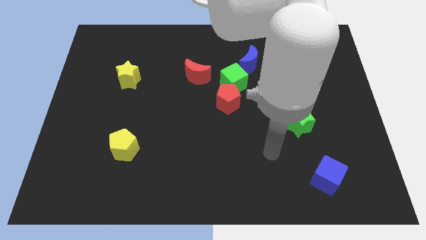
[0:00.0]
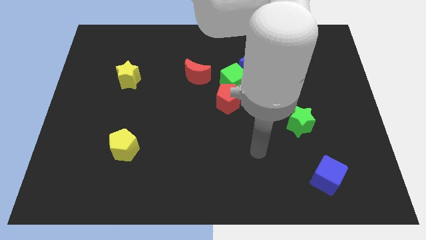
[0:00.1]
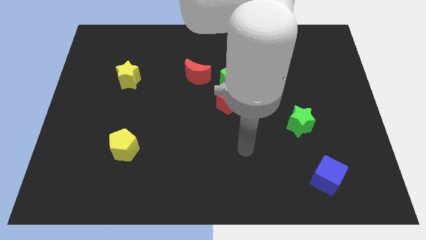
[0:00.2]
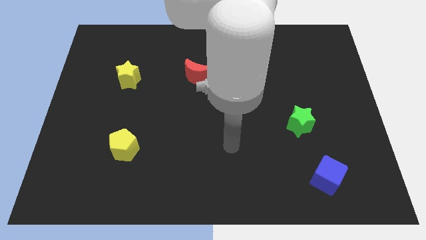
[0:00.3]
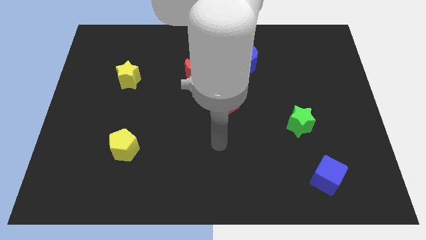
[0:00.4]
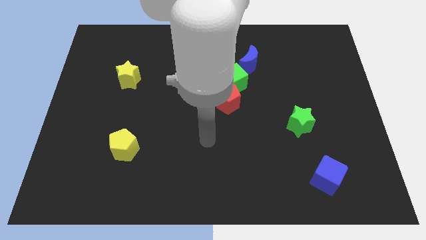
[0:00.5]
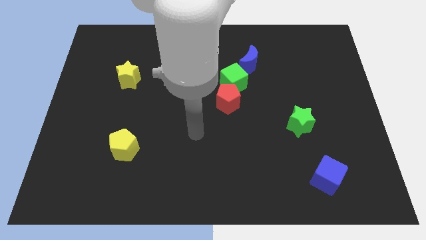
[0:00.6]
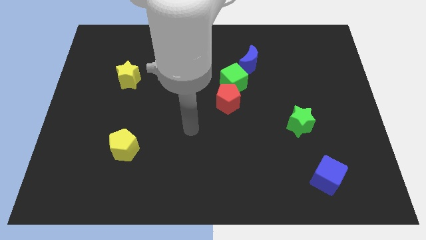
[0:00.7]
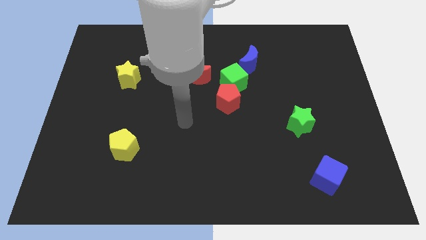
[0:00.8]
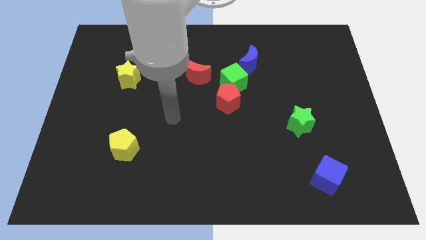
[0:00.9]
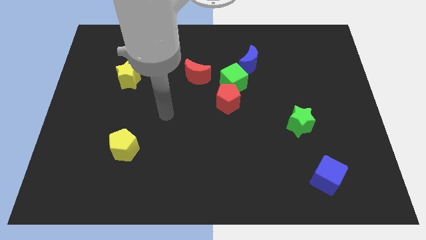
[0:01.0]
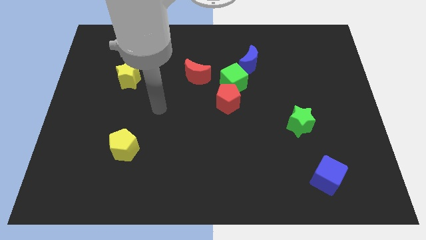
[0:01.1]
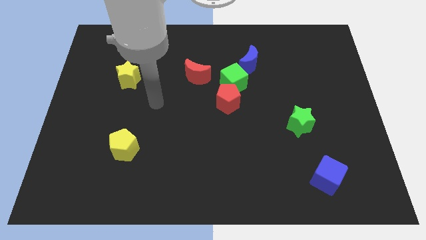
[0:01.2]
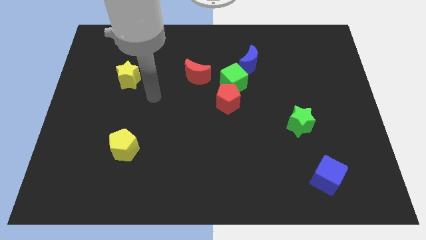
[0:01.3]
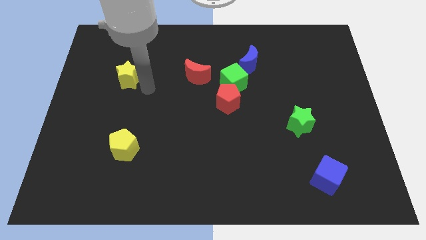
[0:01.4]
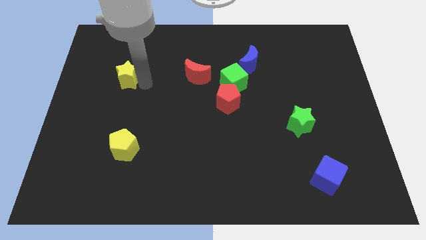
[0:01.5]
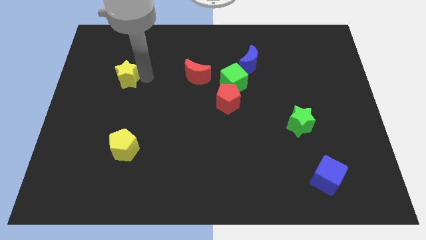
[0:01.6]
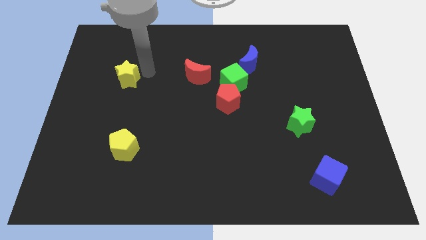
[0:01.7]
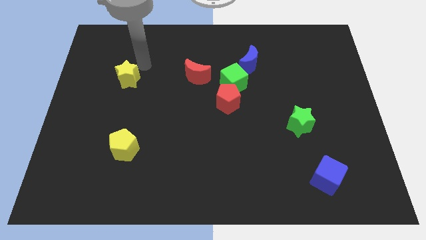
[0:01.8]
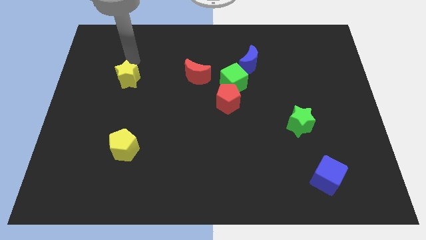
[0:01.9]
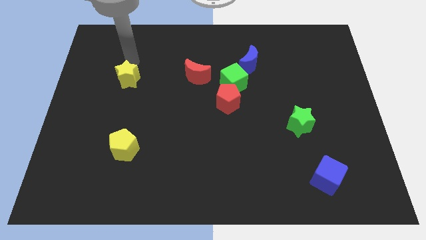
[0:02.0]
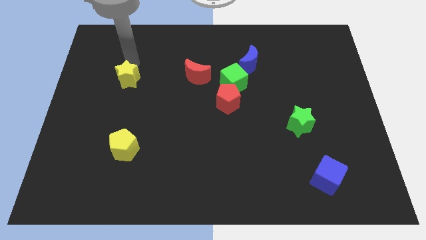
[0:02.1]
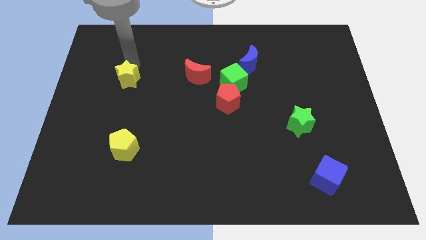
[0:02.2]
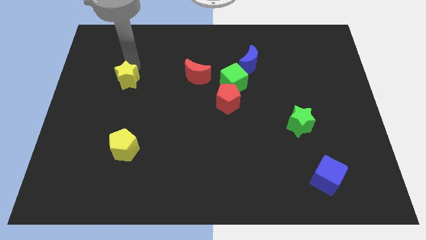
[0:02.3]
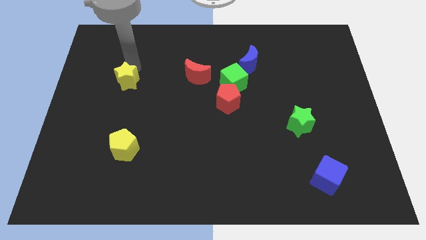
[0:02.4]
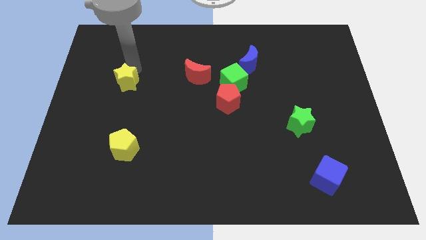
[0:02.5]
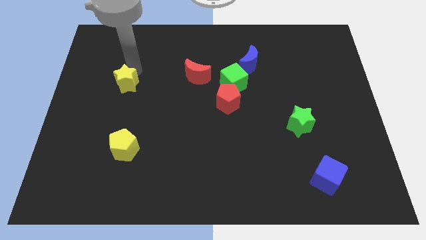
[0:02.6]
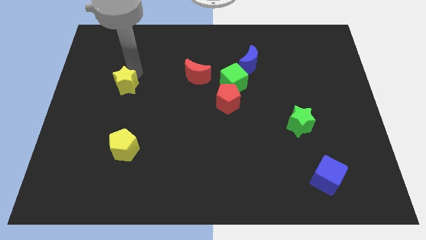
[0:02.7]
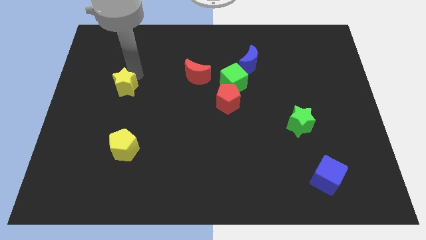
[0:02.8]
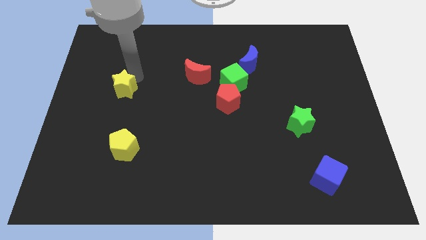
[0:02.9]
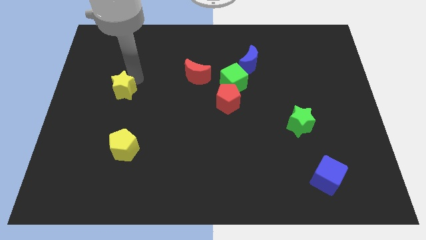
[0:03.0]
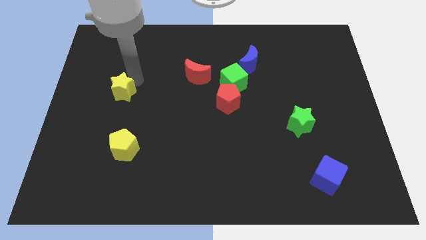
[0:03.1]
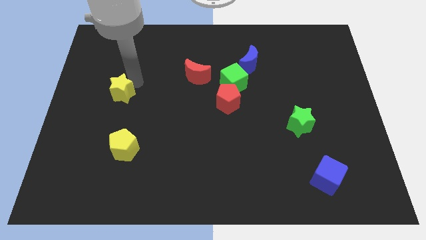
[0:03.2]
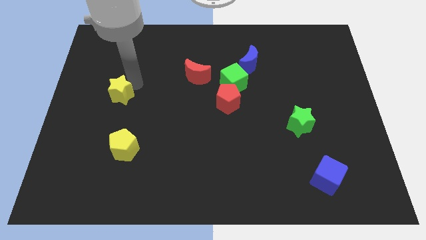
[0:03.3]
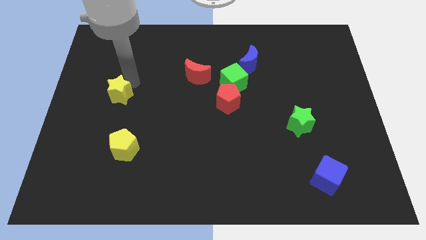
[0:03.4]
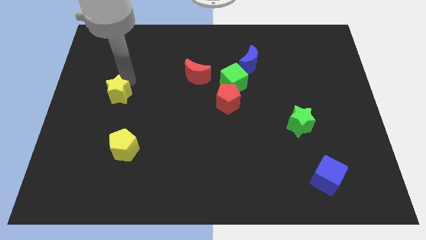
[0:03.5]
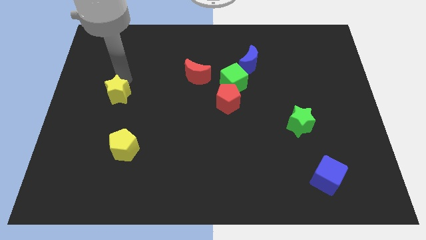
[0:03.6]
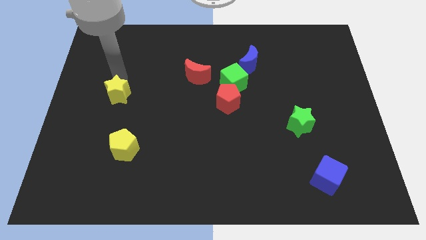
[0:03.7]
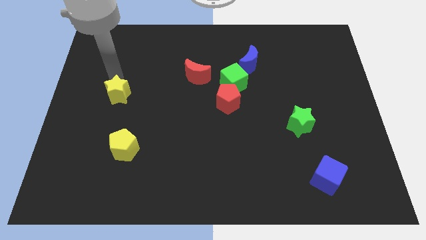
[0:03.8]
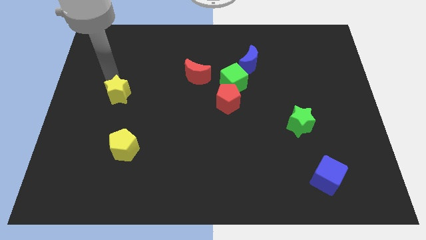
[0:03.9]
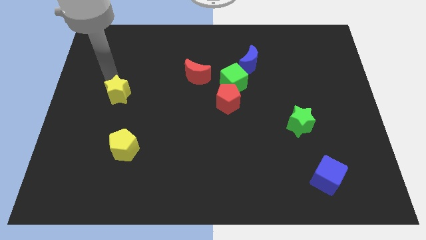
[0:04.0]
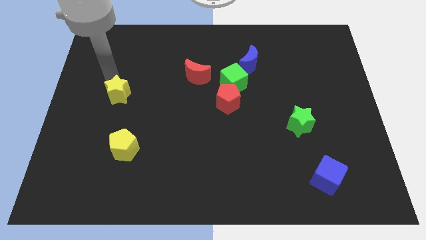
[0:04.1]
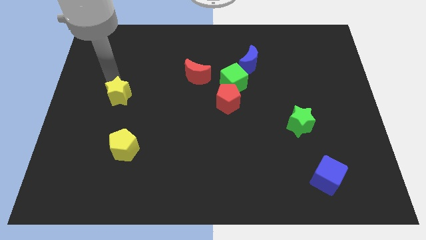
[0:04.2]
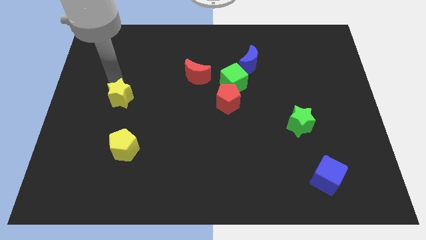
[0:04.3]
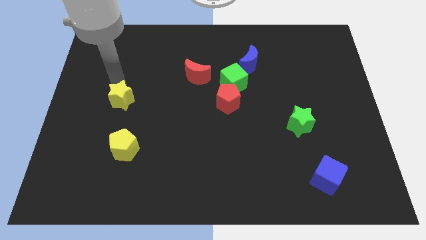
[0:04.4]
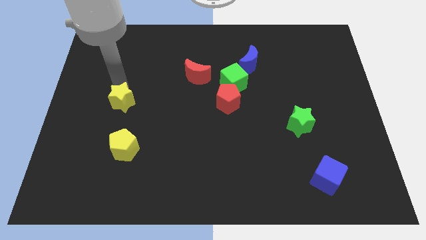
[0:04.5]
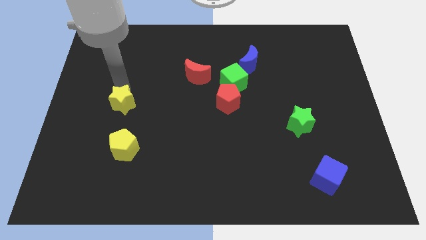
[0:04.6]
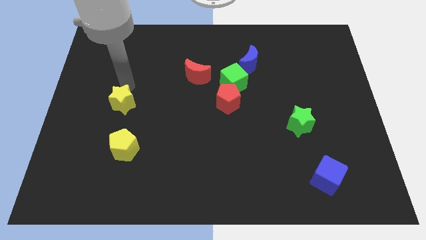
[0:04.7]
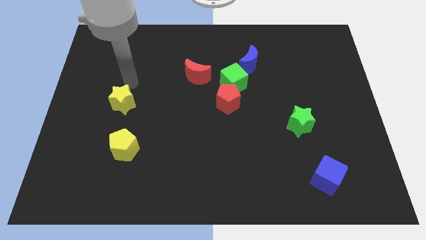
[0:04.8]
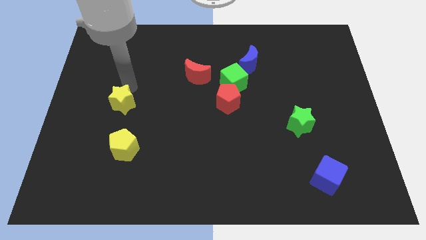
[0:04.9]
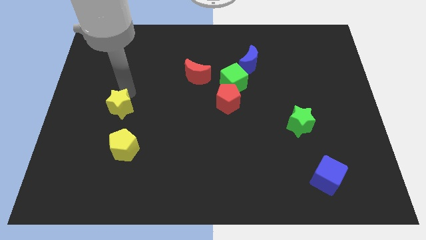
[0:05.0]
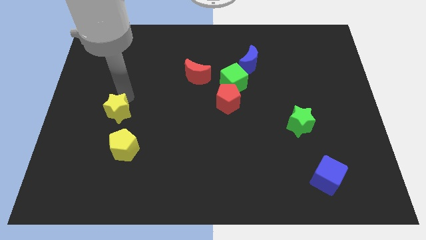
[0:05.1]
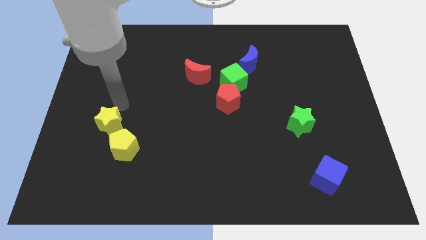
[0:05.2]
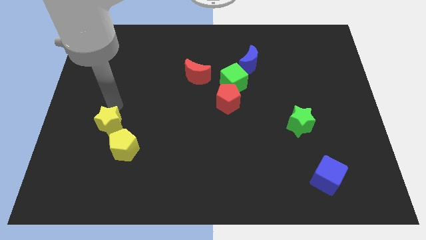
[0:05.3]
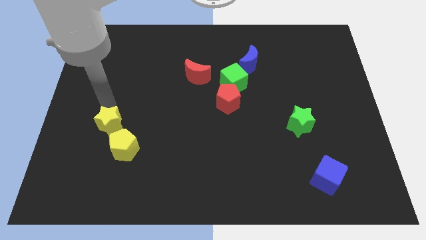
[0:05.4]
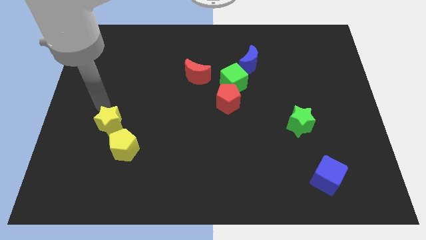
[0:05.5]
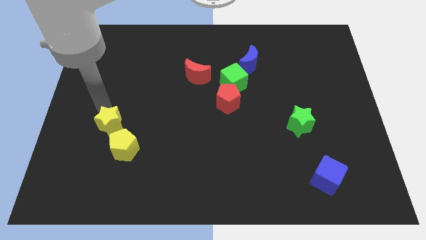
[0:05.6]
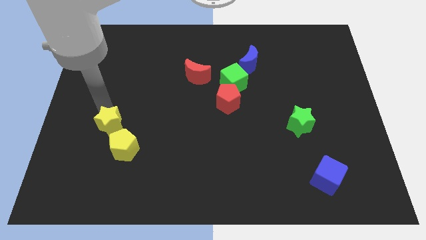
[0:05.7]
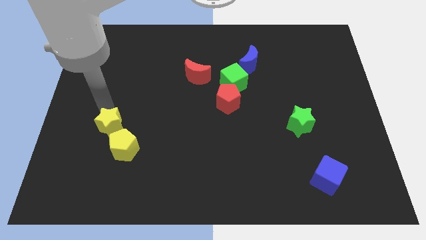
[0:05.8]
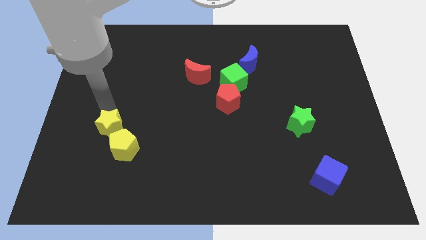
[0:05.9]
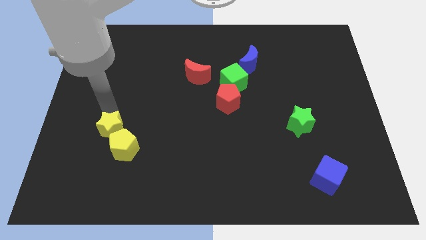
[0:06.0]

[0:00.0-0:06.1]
put the yellow star towards the yellow pentagon

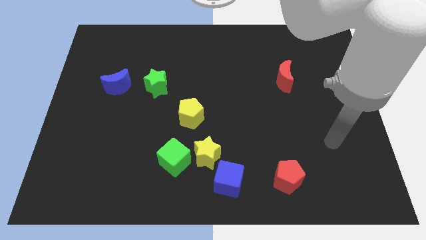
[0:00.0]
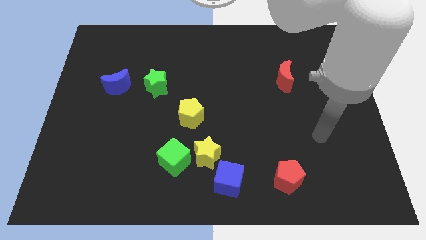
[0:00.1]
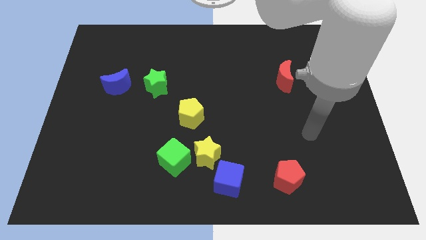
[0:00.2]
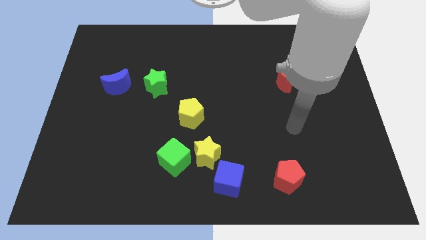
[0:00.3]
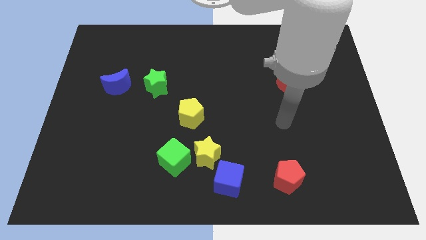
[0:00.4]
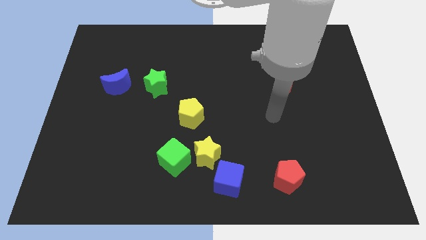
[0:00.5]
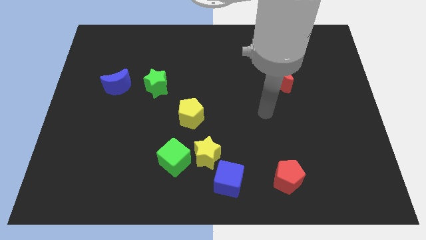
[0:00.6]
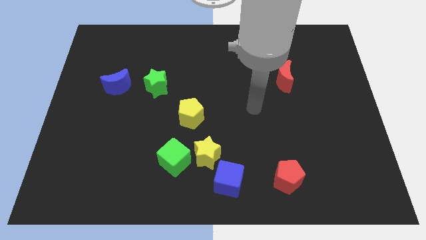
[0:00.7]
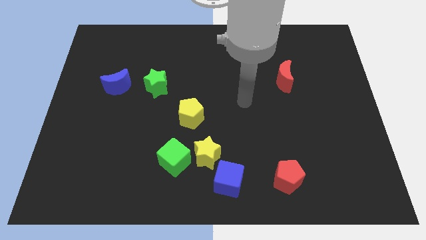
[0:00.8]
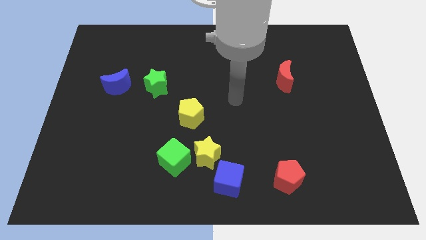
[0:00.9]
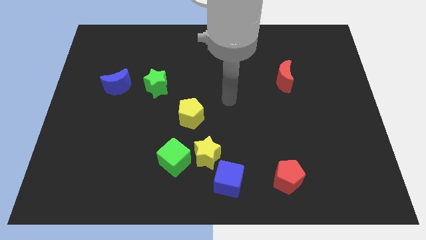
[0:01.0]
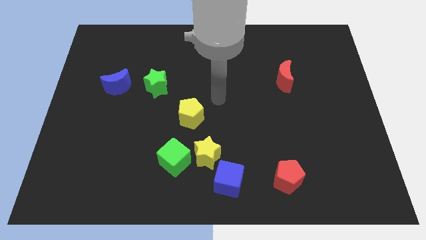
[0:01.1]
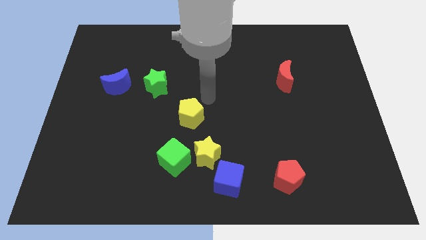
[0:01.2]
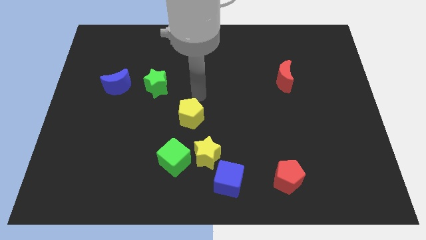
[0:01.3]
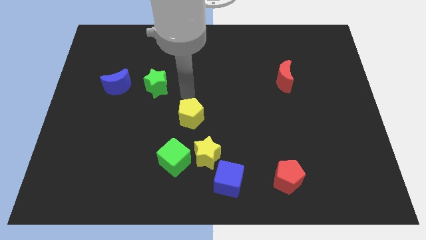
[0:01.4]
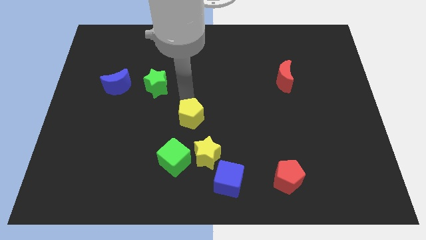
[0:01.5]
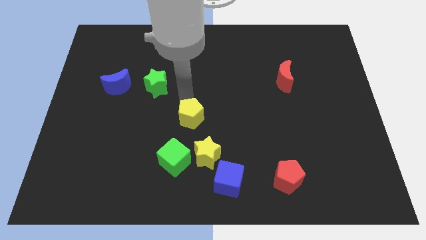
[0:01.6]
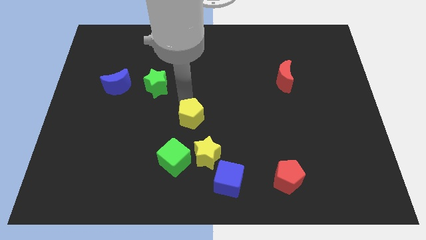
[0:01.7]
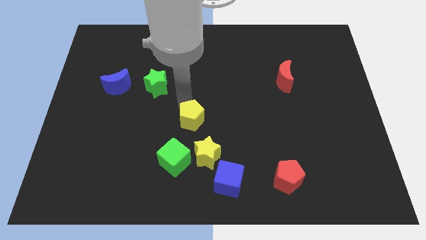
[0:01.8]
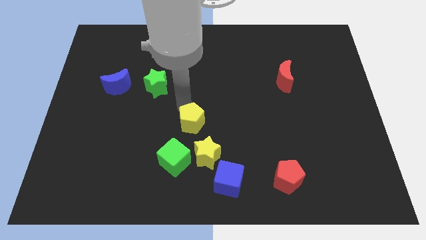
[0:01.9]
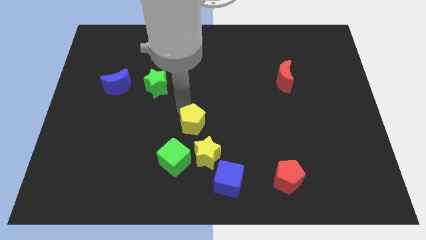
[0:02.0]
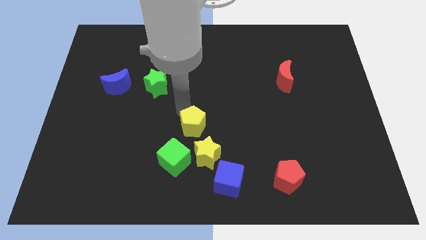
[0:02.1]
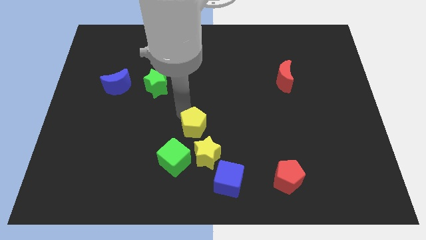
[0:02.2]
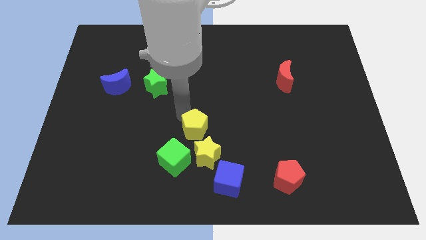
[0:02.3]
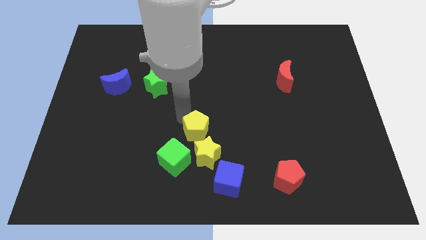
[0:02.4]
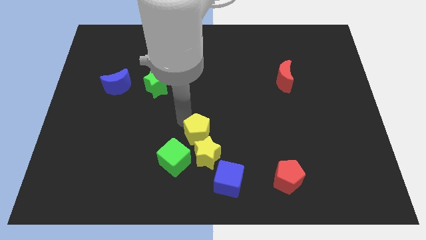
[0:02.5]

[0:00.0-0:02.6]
put the yellow pentagon next to the yellow star
